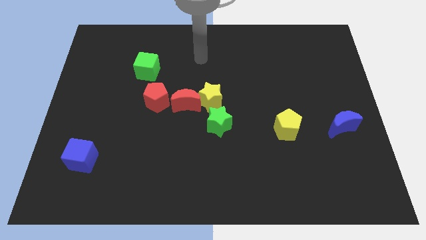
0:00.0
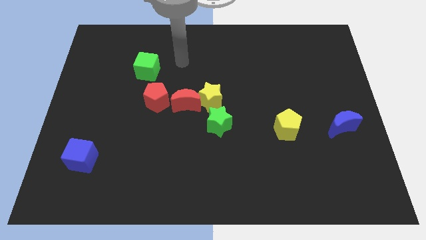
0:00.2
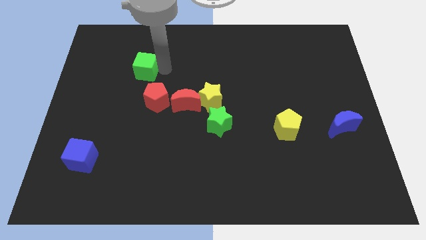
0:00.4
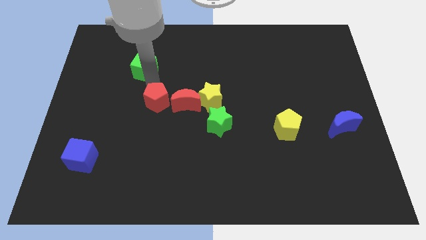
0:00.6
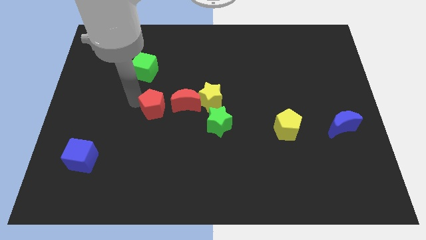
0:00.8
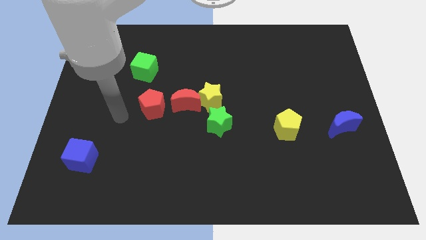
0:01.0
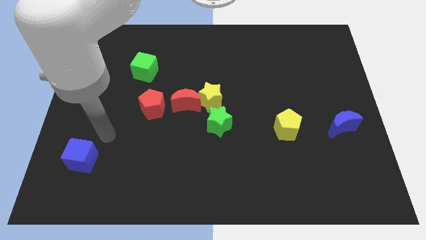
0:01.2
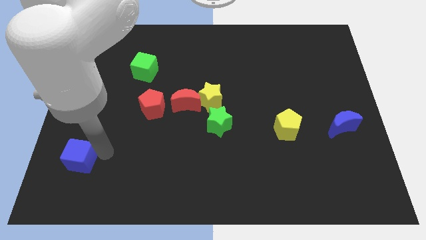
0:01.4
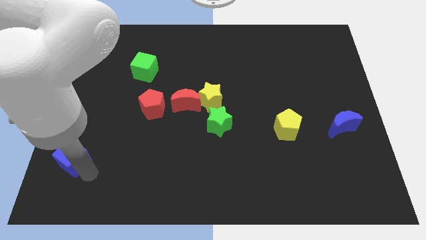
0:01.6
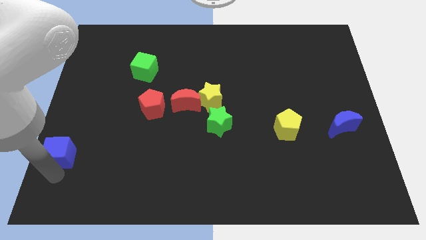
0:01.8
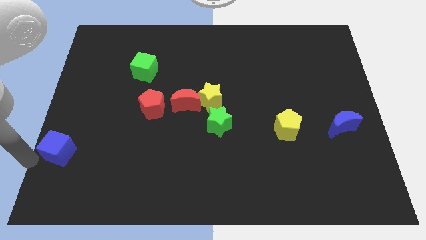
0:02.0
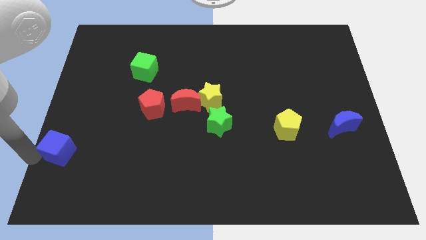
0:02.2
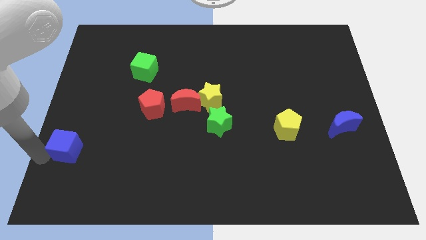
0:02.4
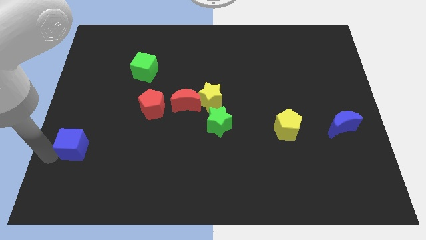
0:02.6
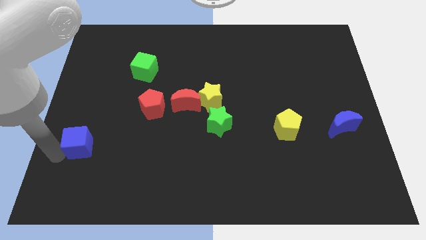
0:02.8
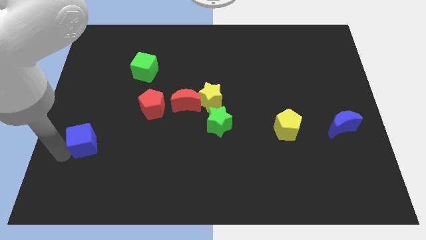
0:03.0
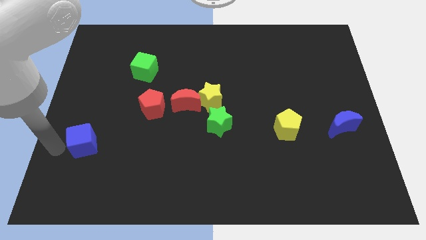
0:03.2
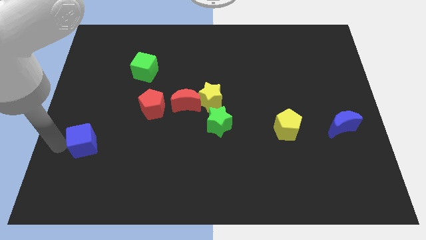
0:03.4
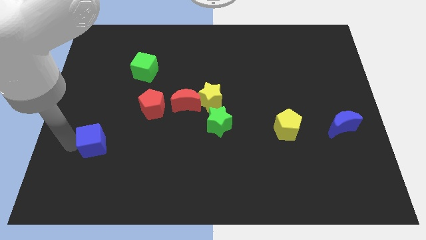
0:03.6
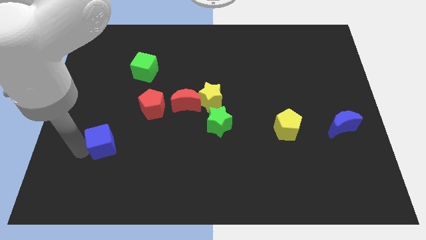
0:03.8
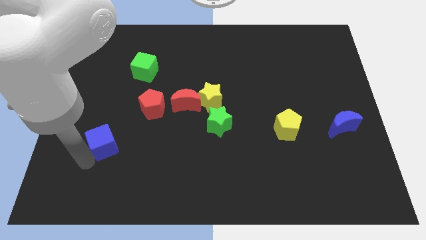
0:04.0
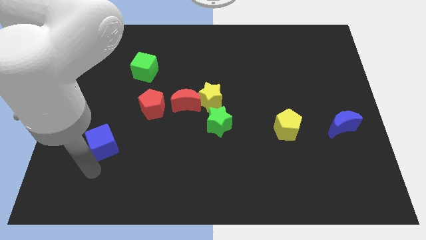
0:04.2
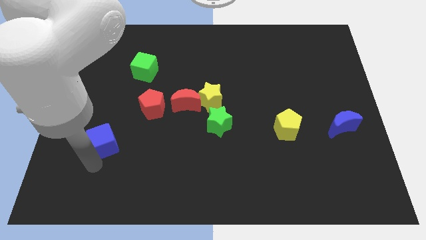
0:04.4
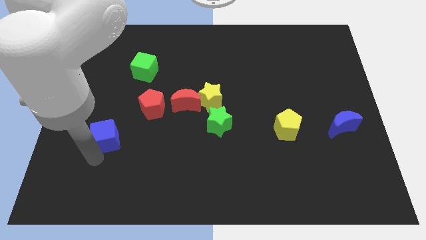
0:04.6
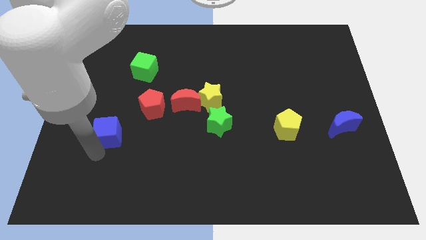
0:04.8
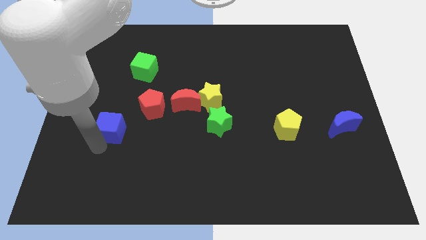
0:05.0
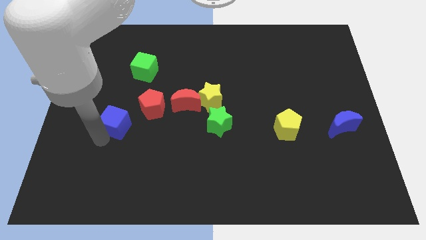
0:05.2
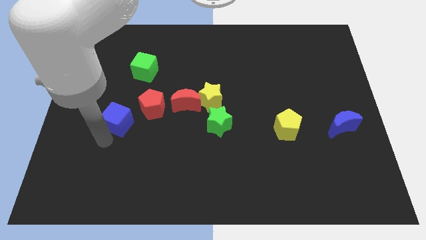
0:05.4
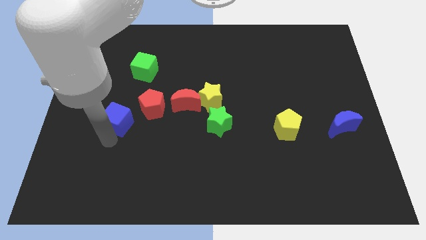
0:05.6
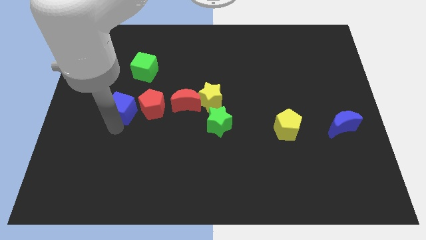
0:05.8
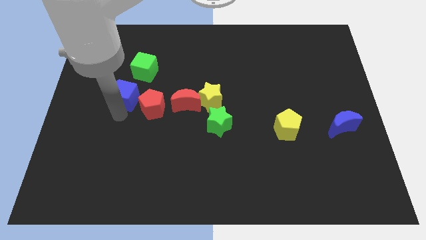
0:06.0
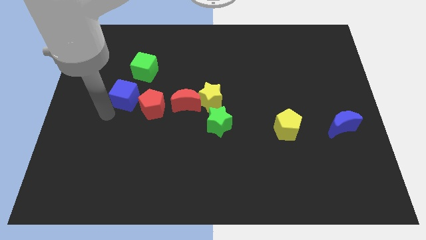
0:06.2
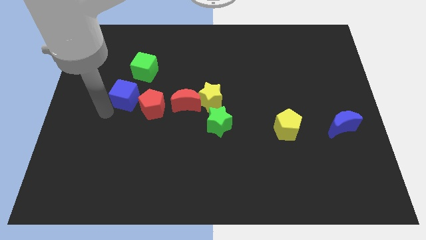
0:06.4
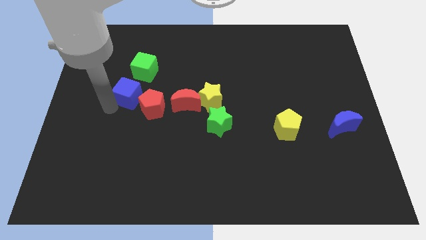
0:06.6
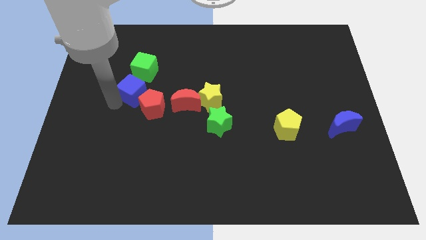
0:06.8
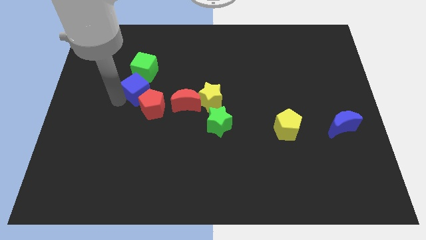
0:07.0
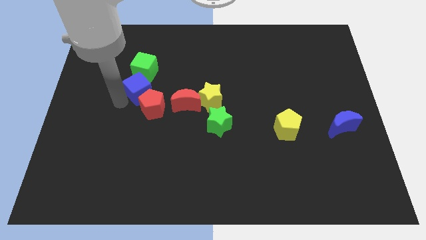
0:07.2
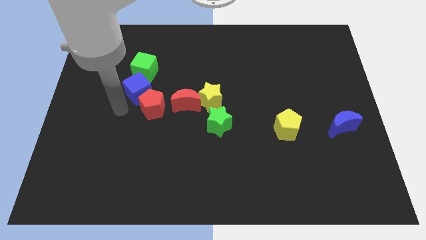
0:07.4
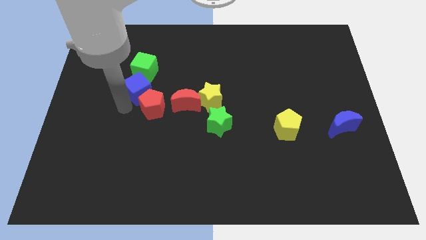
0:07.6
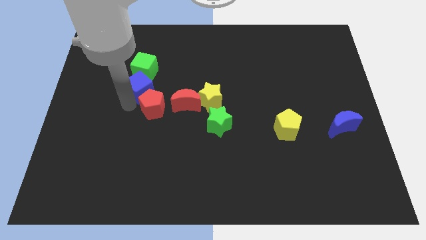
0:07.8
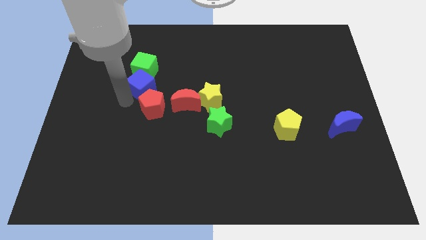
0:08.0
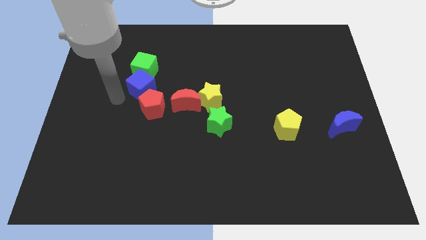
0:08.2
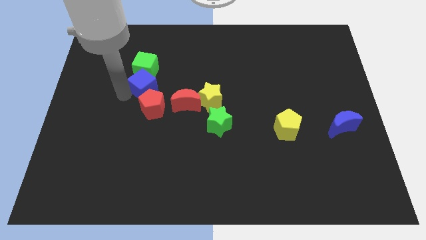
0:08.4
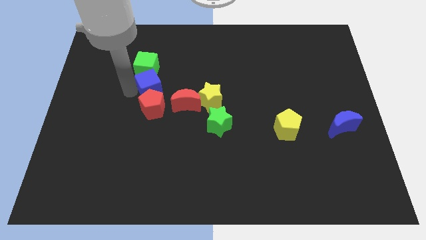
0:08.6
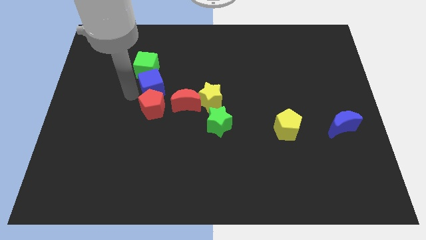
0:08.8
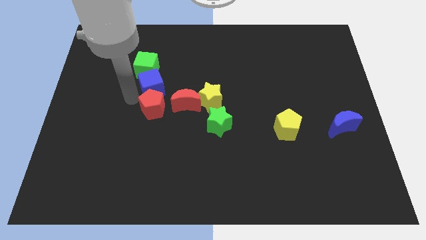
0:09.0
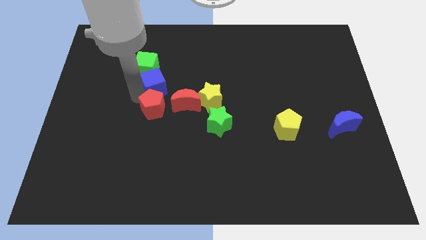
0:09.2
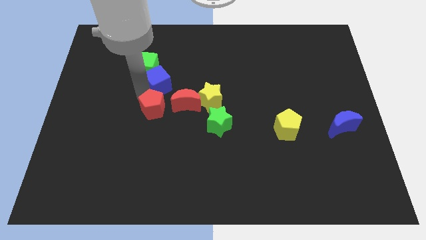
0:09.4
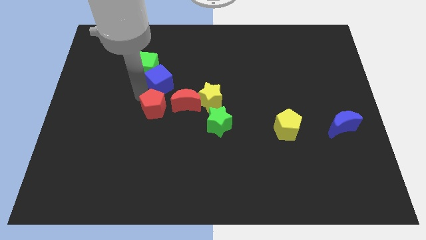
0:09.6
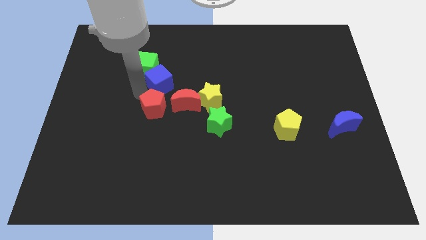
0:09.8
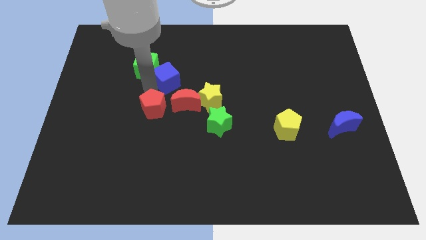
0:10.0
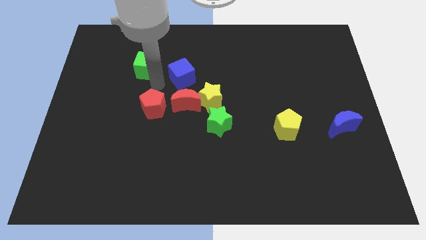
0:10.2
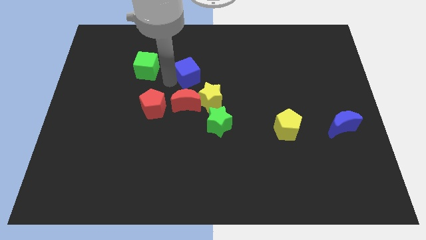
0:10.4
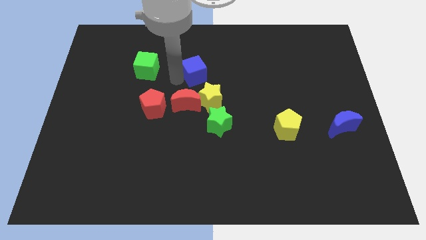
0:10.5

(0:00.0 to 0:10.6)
push the blue cube above the yellow star

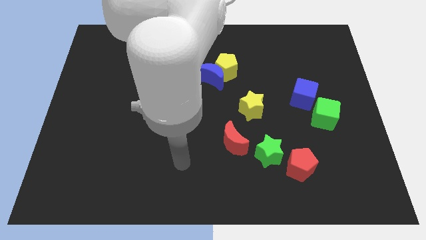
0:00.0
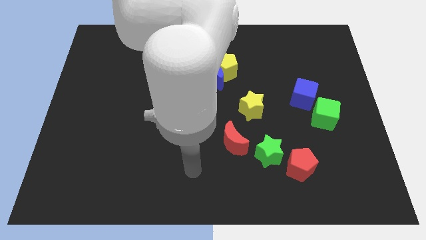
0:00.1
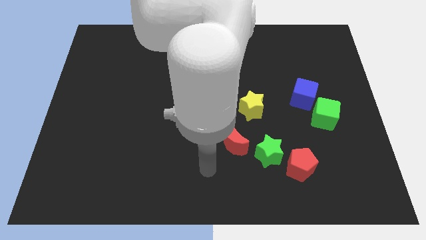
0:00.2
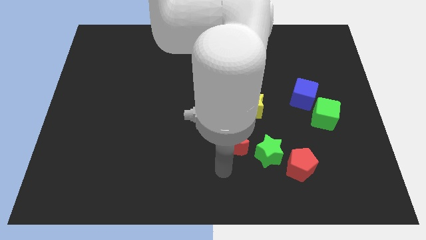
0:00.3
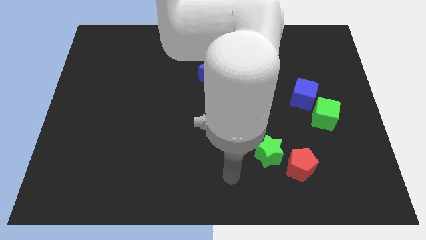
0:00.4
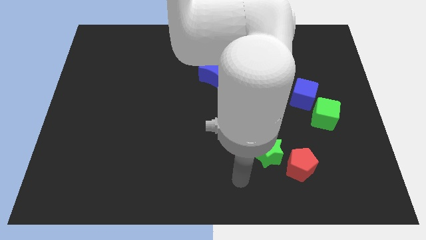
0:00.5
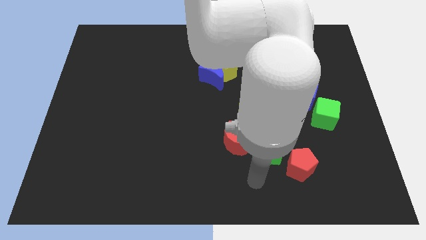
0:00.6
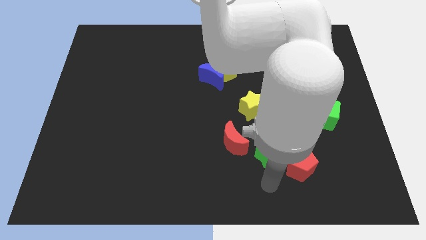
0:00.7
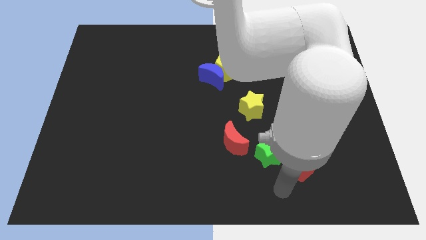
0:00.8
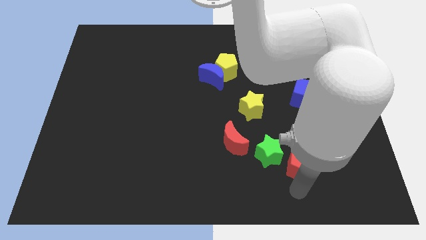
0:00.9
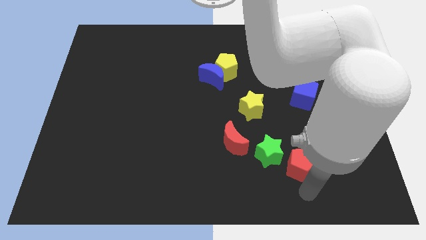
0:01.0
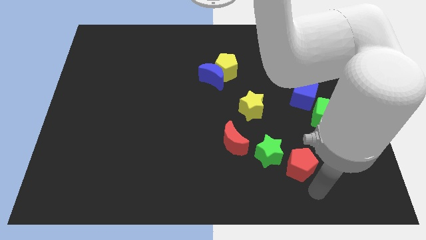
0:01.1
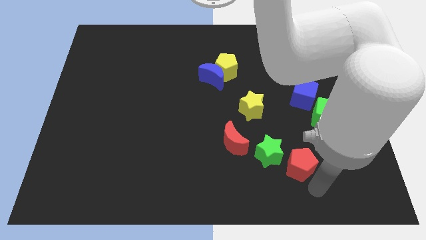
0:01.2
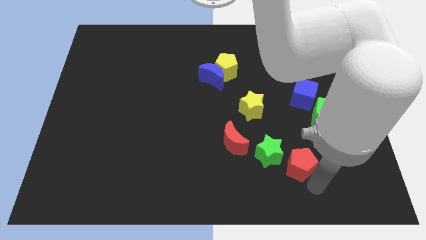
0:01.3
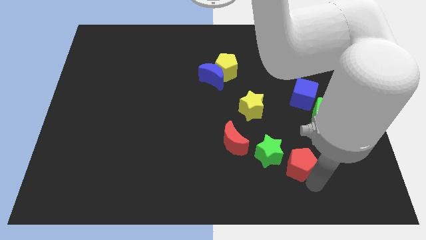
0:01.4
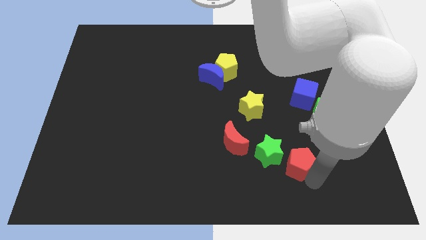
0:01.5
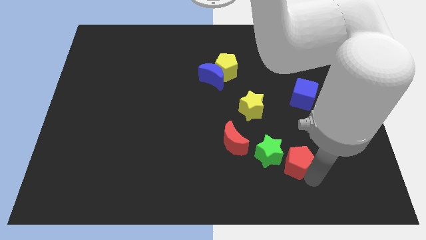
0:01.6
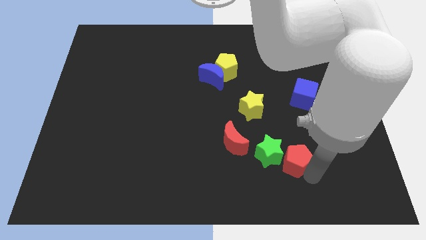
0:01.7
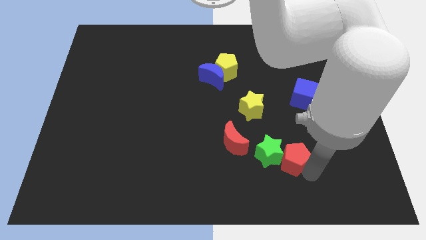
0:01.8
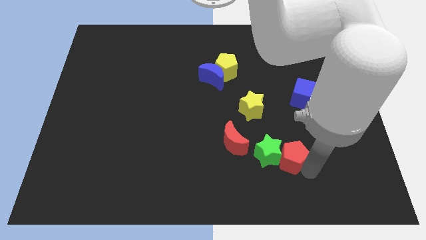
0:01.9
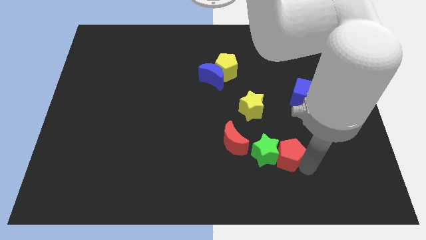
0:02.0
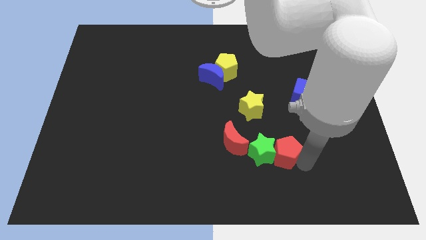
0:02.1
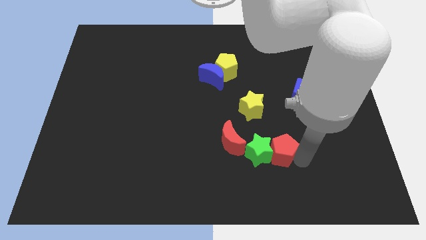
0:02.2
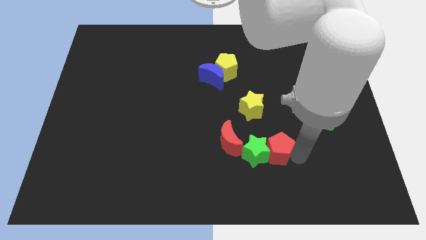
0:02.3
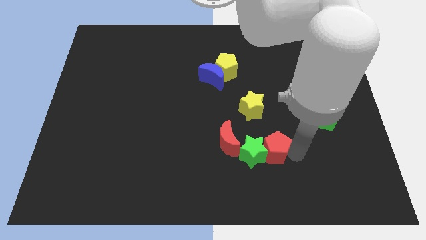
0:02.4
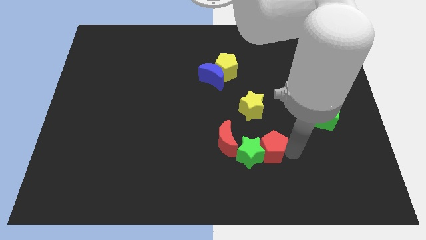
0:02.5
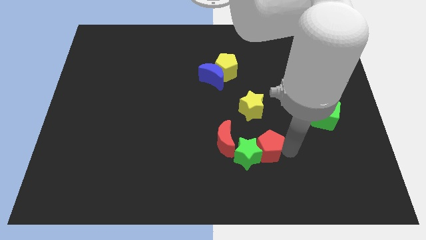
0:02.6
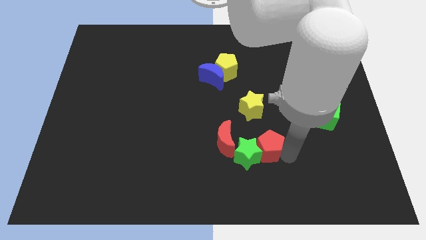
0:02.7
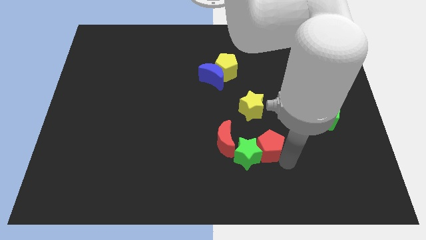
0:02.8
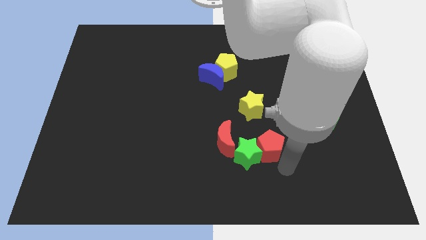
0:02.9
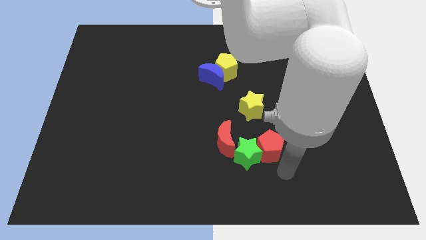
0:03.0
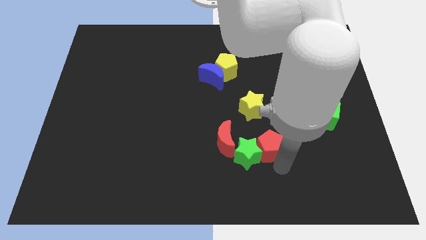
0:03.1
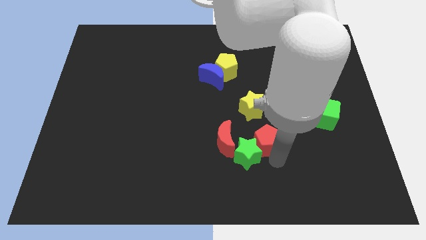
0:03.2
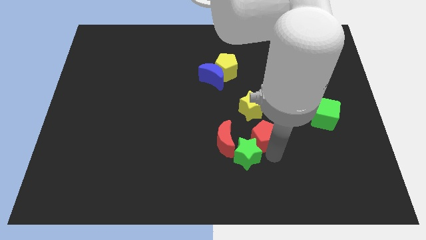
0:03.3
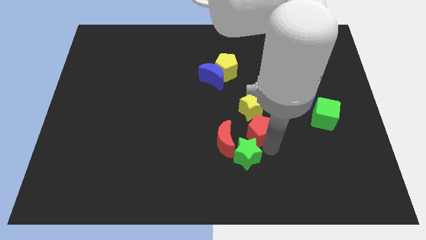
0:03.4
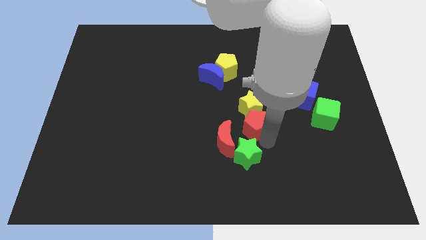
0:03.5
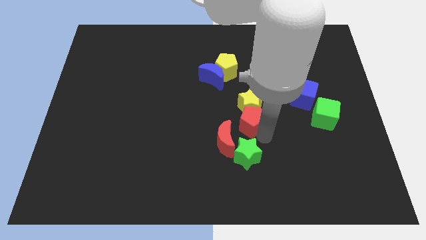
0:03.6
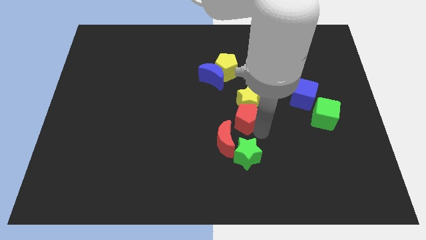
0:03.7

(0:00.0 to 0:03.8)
move the red pentagon above the red moon
